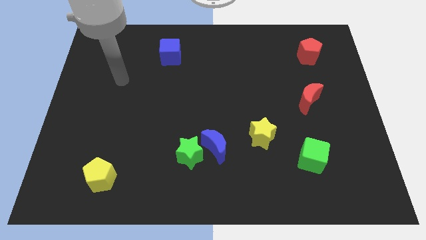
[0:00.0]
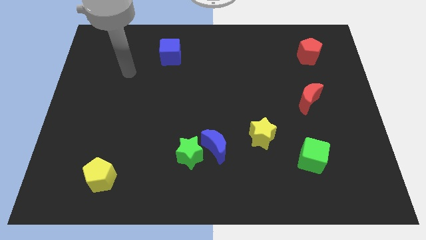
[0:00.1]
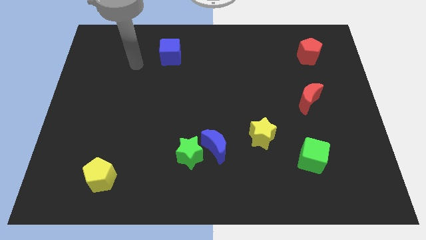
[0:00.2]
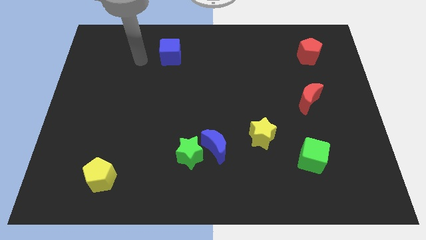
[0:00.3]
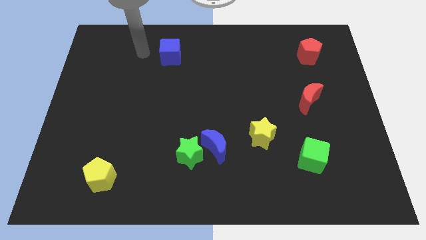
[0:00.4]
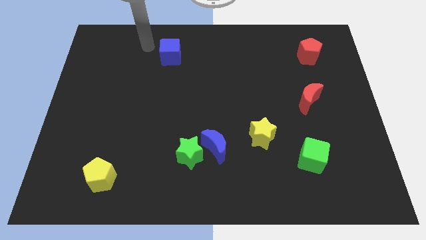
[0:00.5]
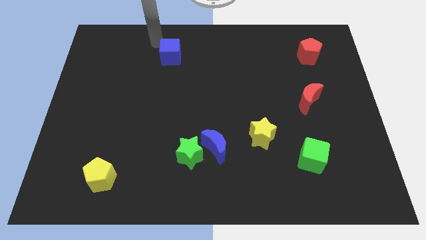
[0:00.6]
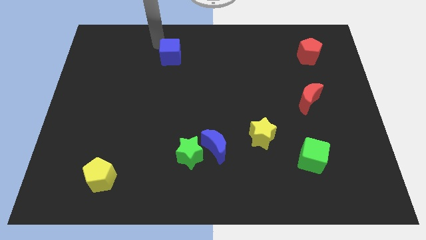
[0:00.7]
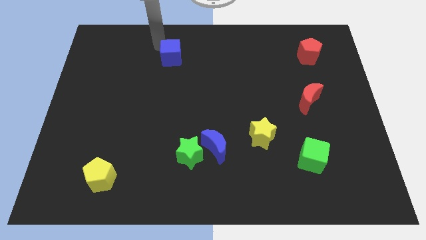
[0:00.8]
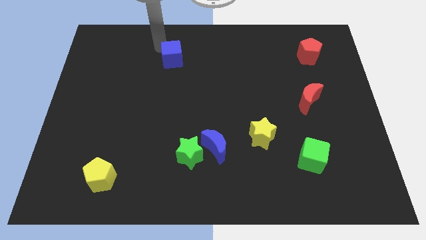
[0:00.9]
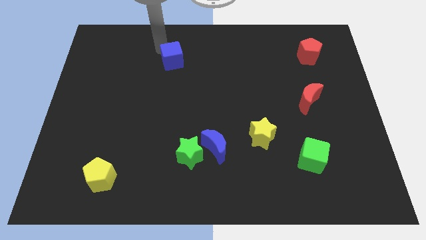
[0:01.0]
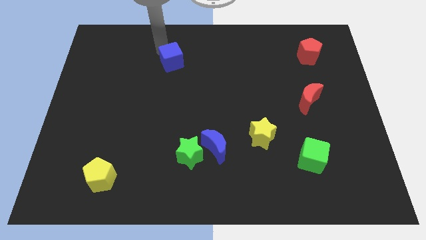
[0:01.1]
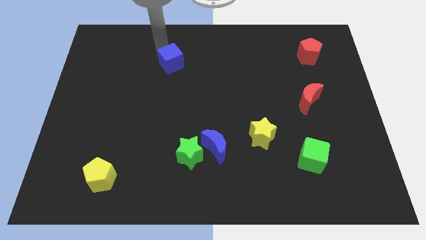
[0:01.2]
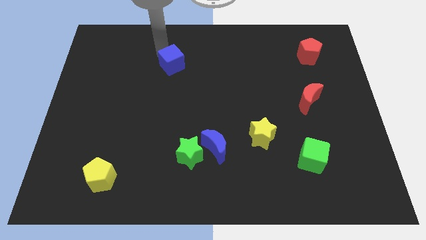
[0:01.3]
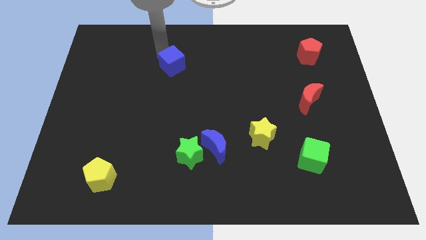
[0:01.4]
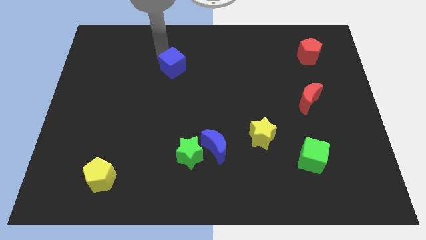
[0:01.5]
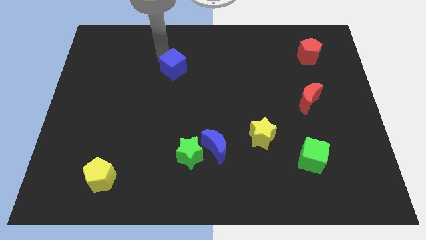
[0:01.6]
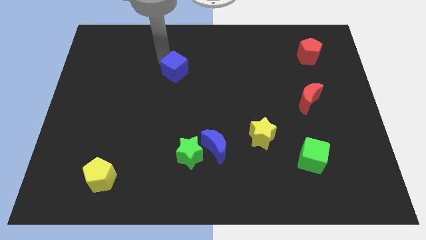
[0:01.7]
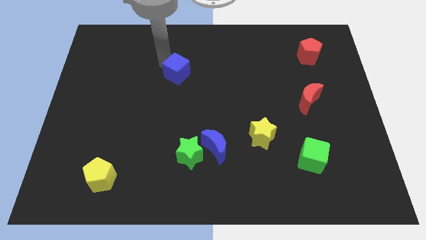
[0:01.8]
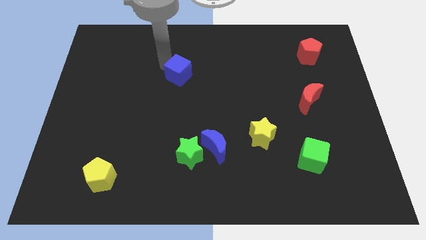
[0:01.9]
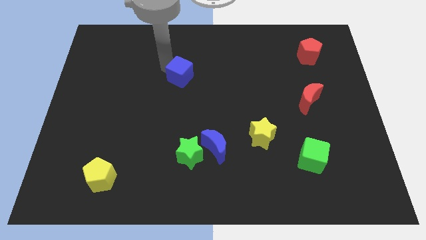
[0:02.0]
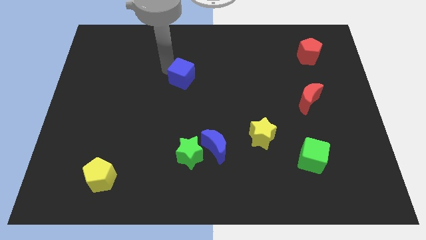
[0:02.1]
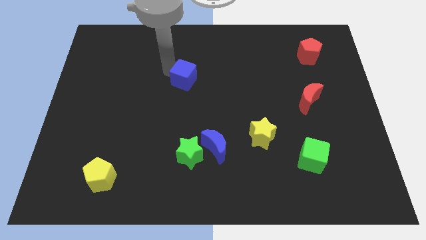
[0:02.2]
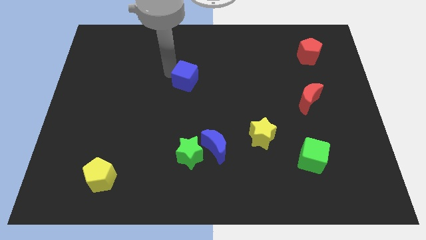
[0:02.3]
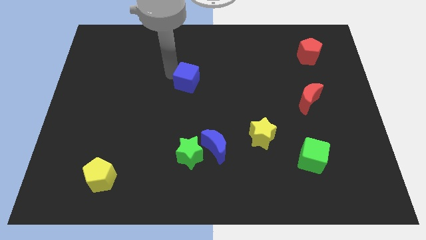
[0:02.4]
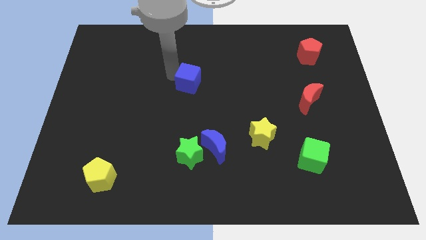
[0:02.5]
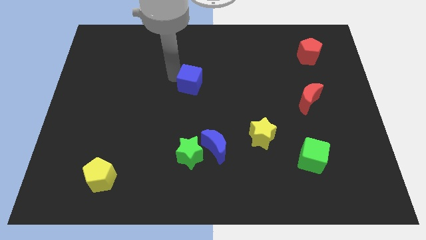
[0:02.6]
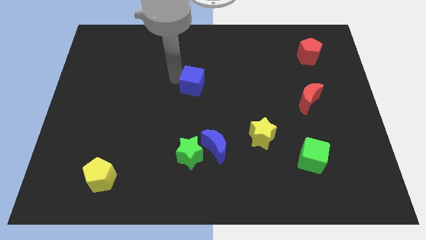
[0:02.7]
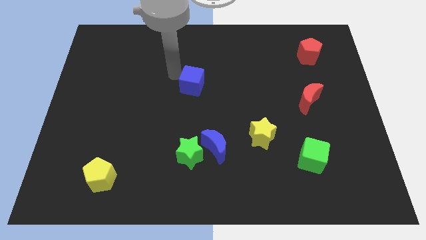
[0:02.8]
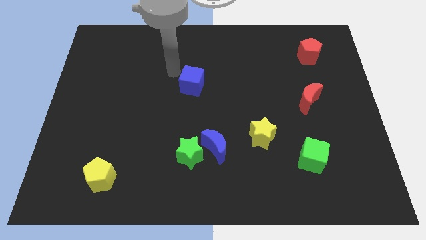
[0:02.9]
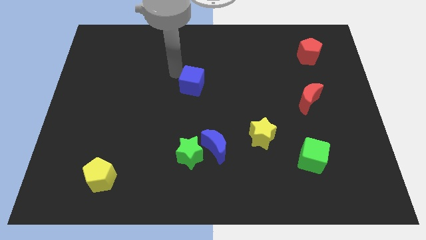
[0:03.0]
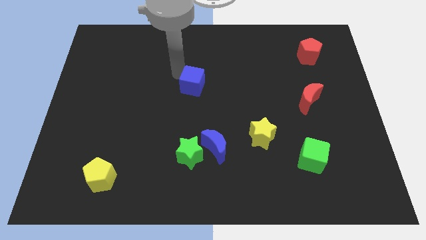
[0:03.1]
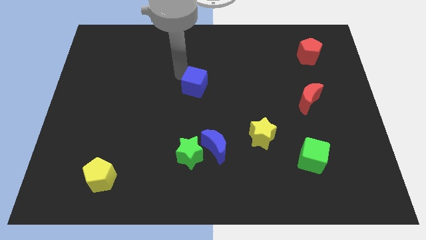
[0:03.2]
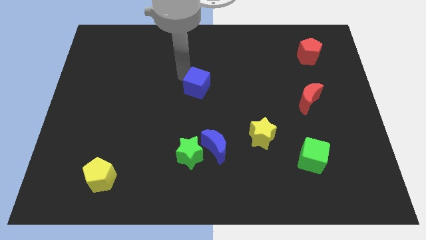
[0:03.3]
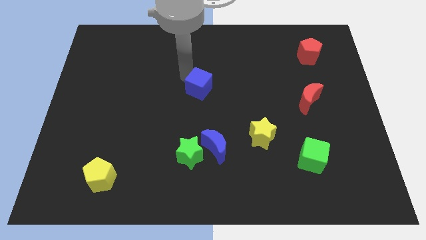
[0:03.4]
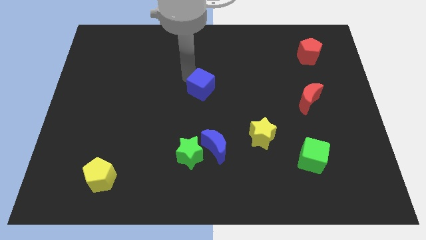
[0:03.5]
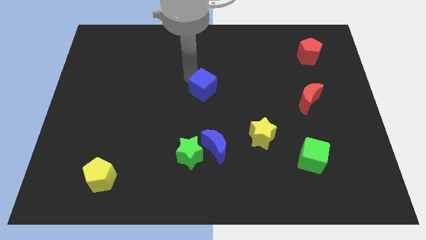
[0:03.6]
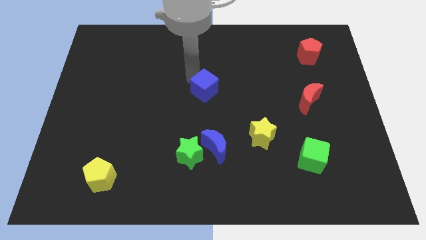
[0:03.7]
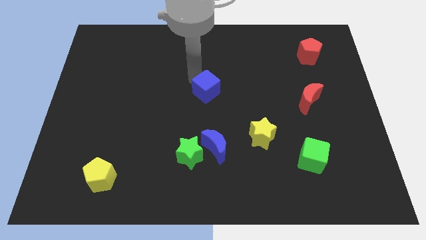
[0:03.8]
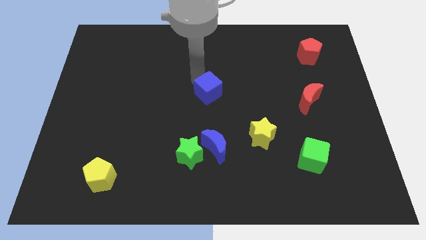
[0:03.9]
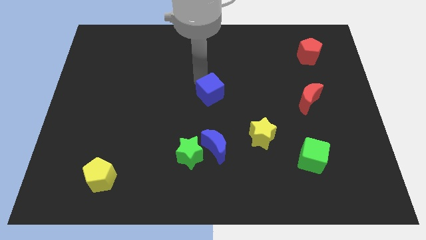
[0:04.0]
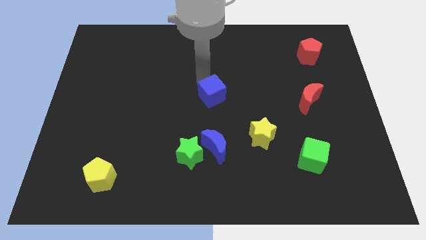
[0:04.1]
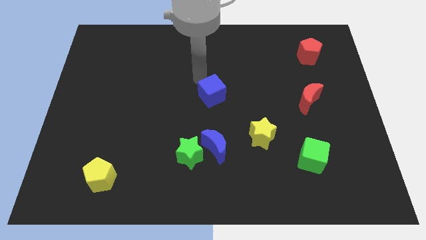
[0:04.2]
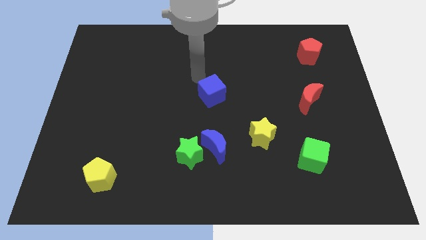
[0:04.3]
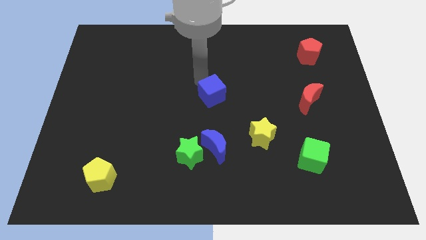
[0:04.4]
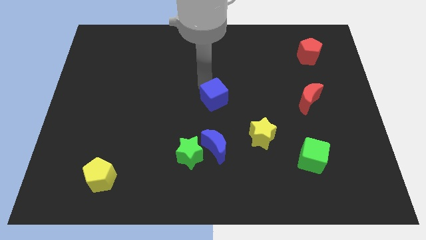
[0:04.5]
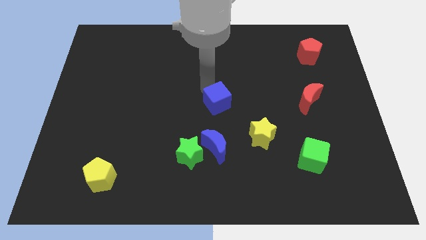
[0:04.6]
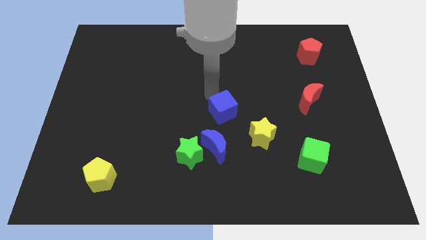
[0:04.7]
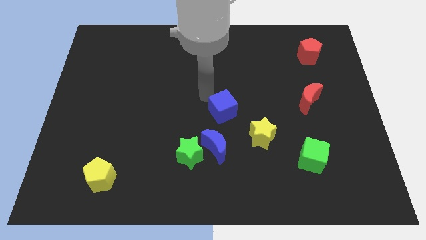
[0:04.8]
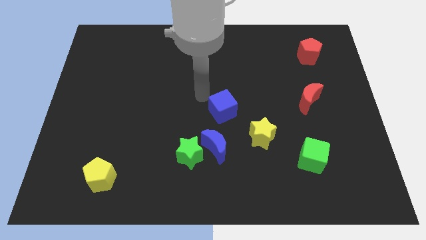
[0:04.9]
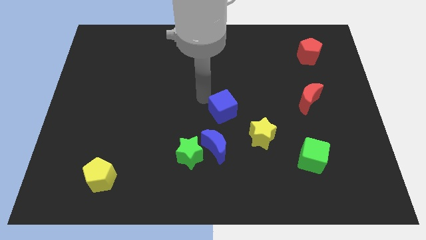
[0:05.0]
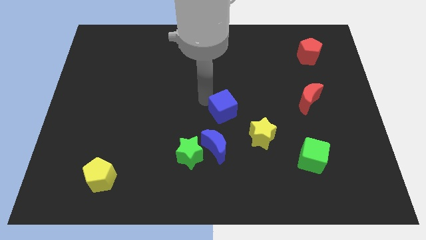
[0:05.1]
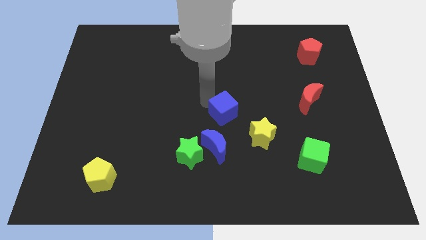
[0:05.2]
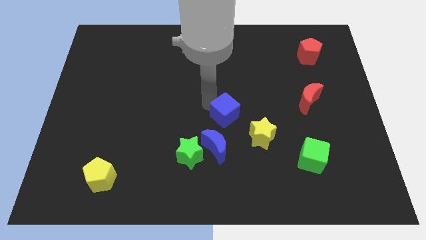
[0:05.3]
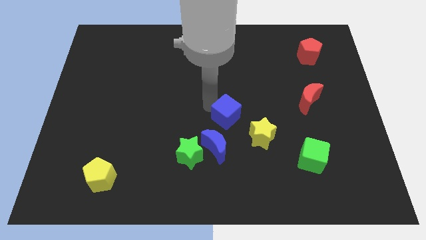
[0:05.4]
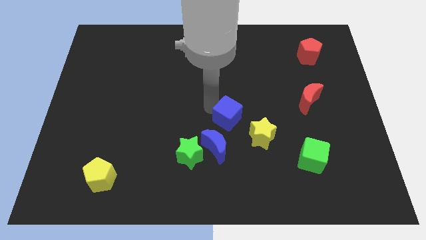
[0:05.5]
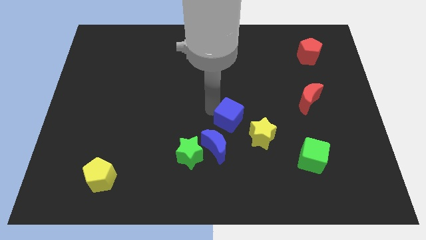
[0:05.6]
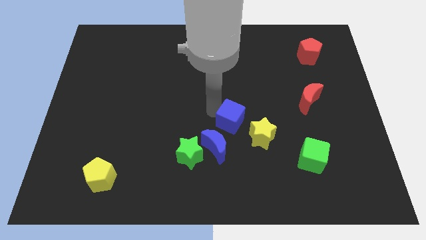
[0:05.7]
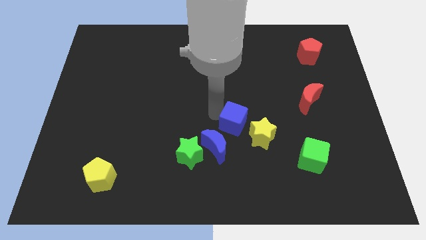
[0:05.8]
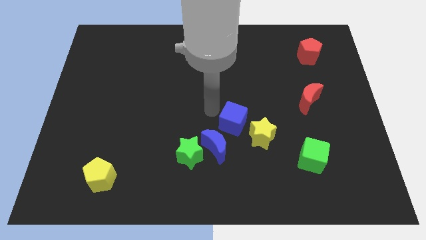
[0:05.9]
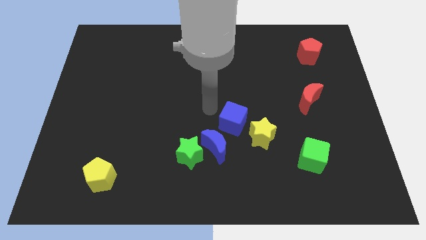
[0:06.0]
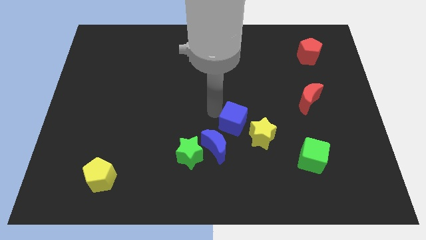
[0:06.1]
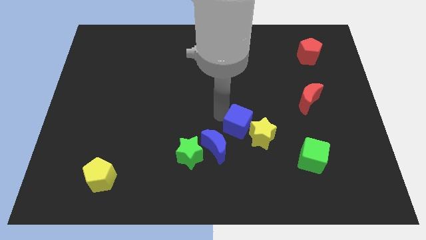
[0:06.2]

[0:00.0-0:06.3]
put the blue cube to the yellow star

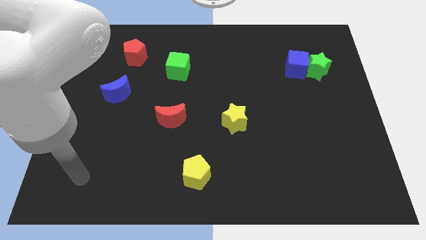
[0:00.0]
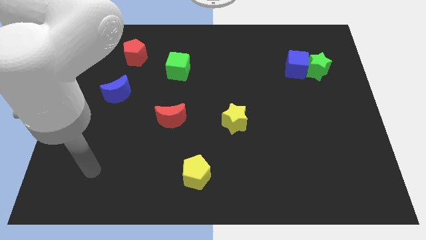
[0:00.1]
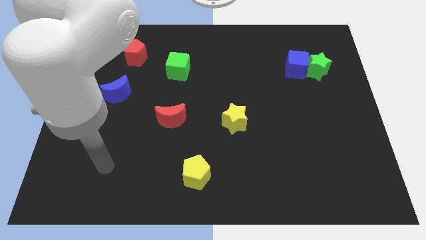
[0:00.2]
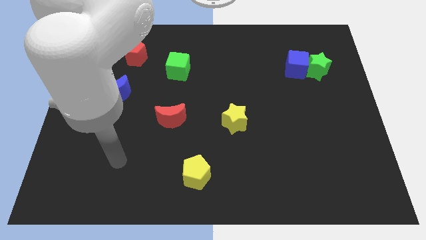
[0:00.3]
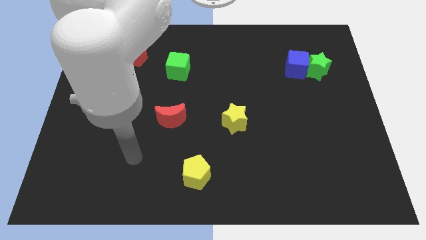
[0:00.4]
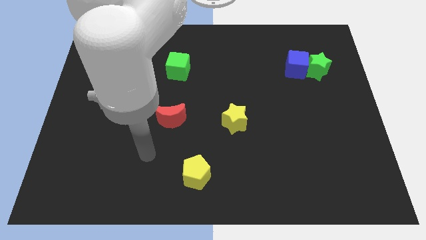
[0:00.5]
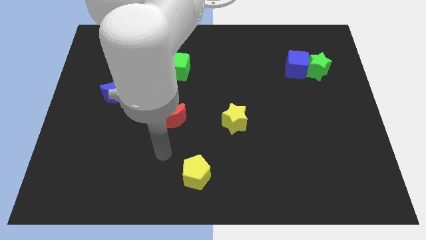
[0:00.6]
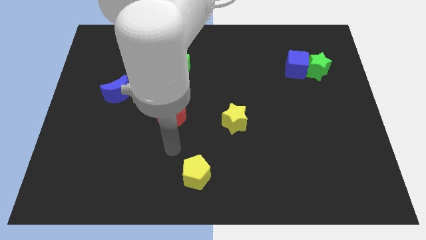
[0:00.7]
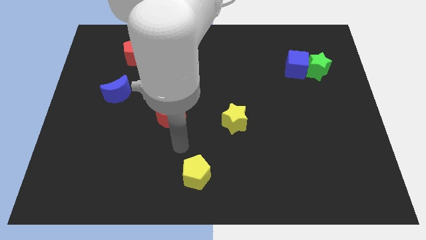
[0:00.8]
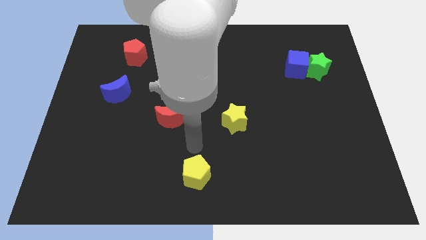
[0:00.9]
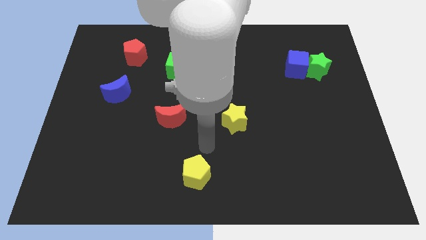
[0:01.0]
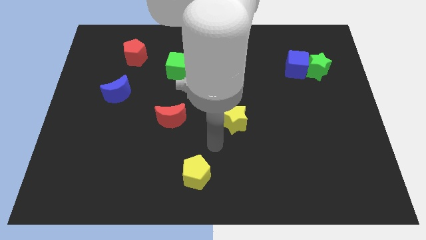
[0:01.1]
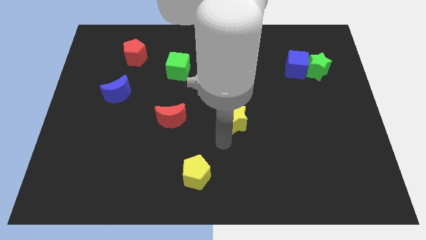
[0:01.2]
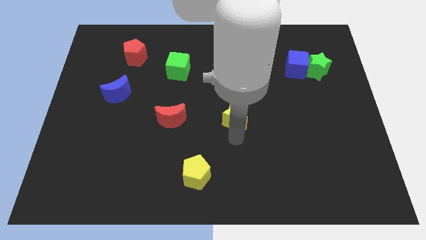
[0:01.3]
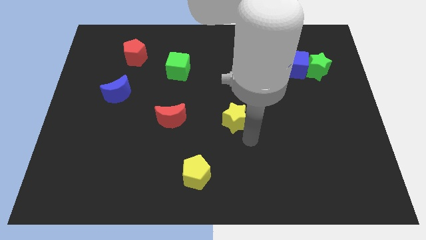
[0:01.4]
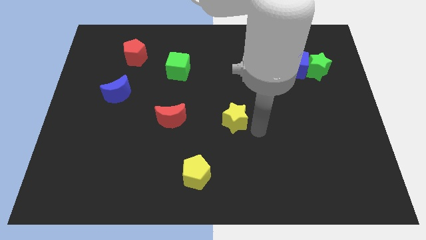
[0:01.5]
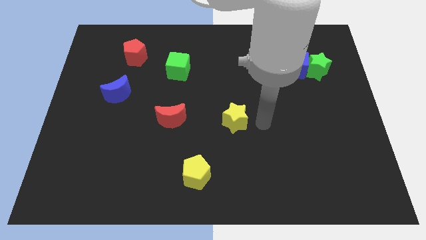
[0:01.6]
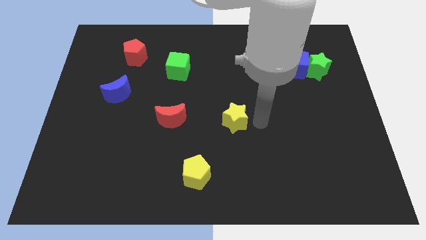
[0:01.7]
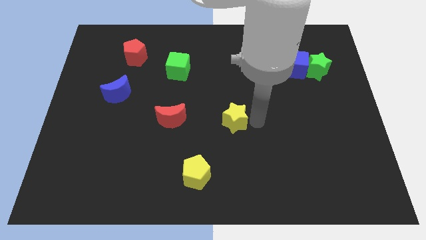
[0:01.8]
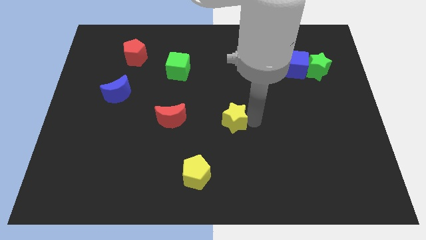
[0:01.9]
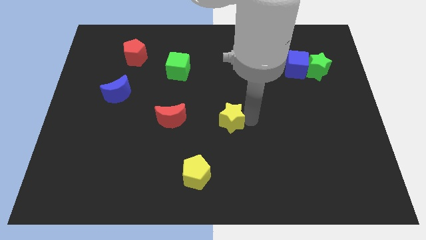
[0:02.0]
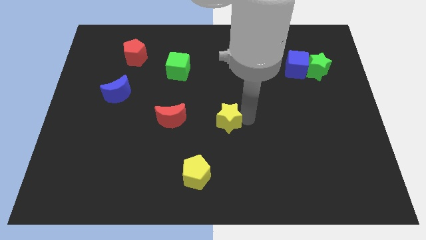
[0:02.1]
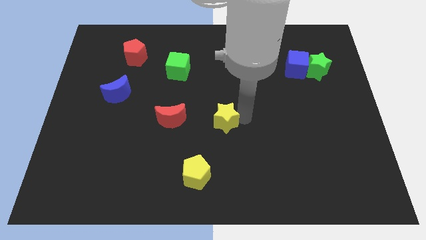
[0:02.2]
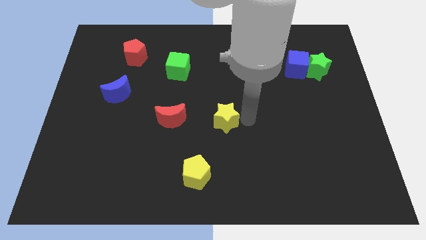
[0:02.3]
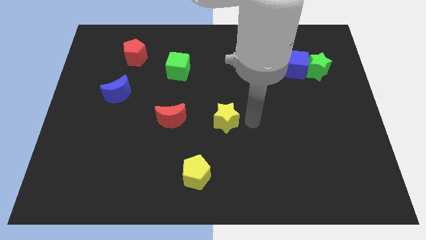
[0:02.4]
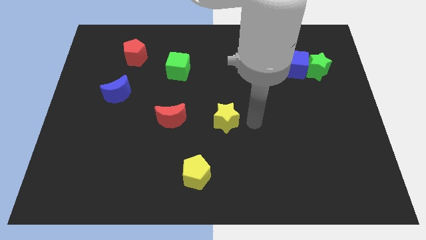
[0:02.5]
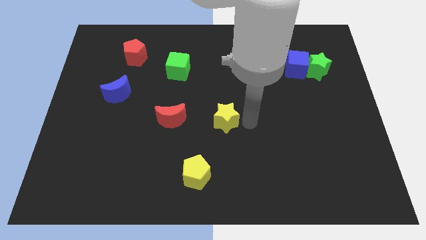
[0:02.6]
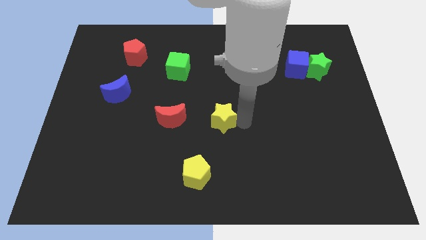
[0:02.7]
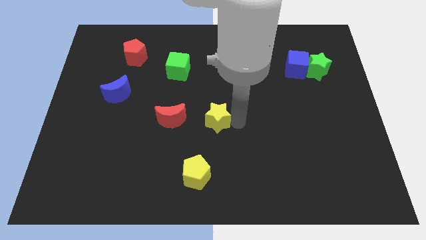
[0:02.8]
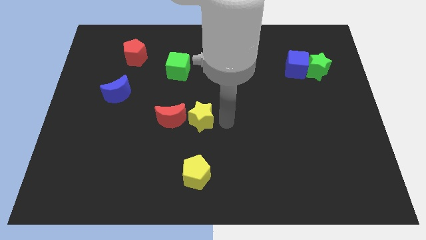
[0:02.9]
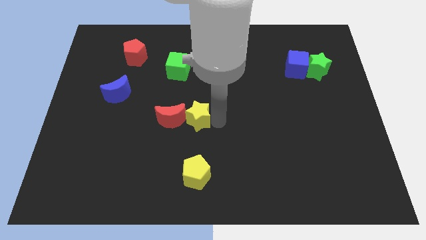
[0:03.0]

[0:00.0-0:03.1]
push the yellow star towards the red moon
